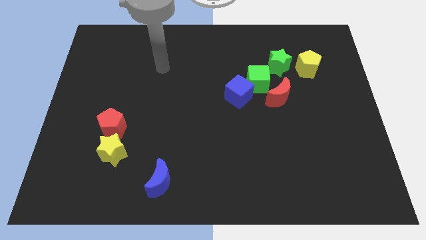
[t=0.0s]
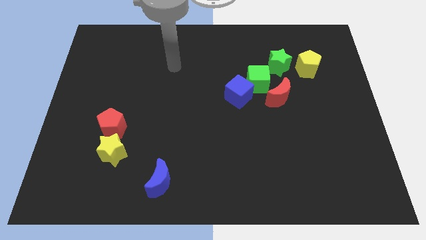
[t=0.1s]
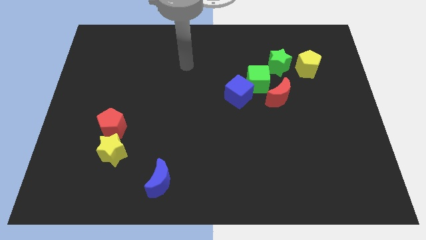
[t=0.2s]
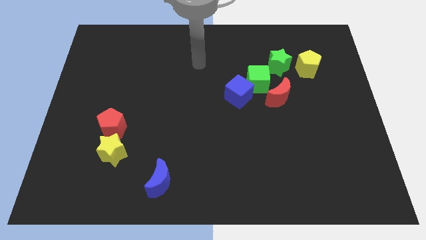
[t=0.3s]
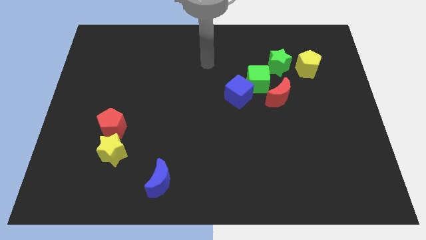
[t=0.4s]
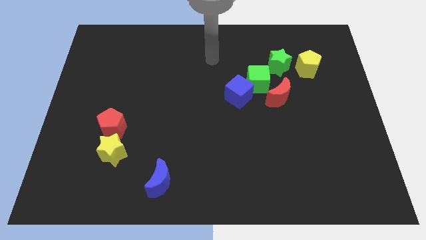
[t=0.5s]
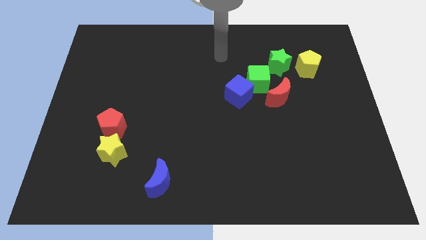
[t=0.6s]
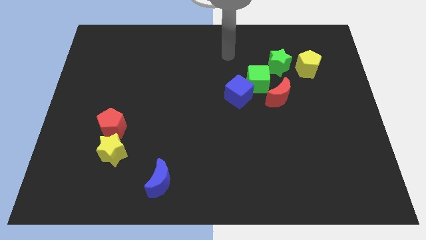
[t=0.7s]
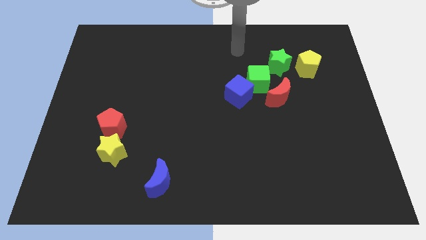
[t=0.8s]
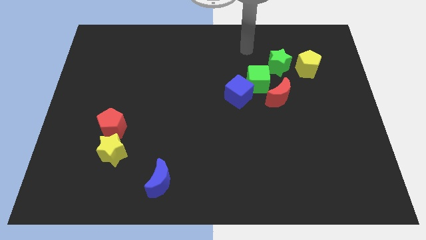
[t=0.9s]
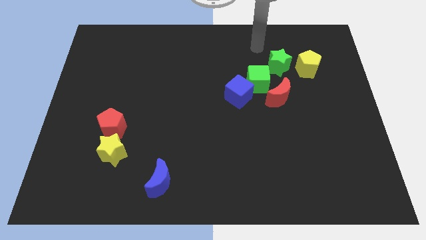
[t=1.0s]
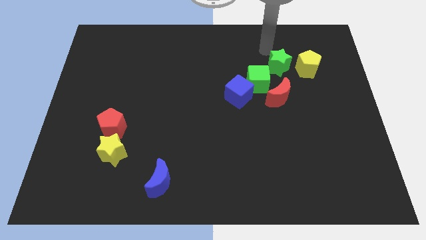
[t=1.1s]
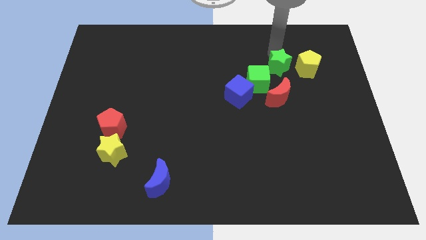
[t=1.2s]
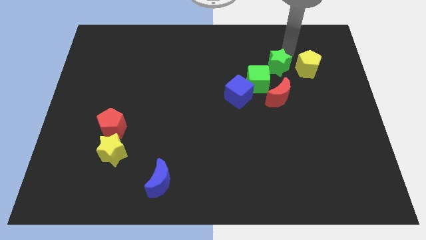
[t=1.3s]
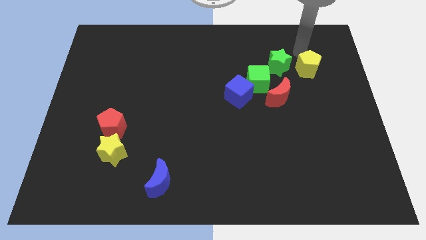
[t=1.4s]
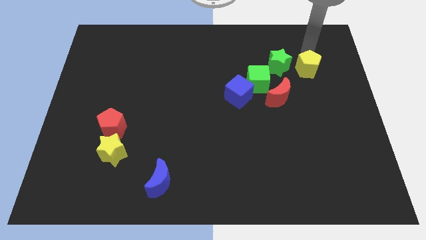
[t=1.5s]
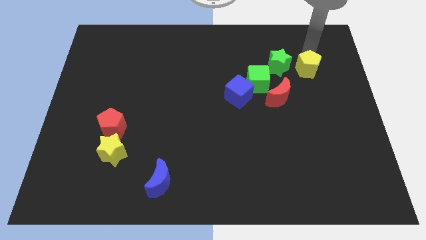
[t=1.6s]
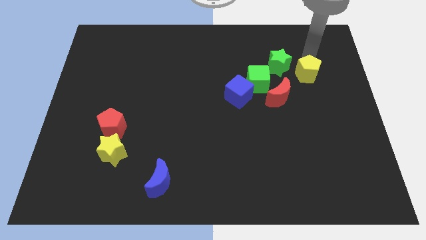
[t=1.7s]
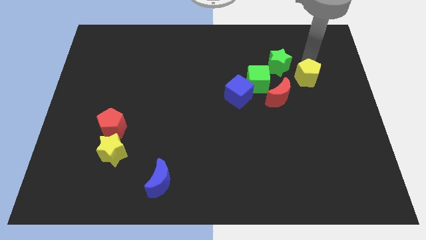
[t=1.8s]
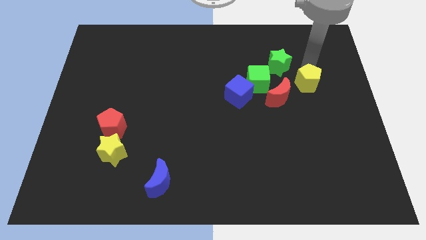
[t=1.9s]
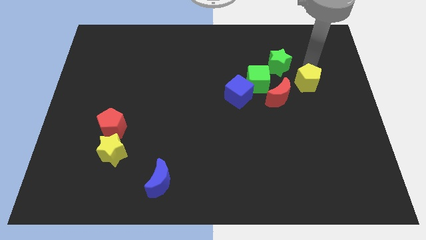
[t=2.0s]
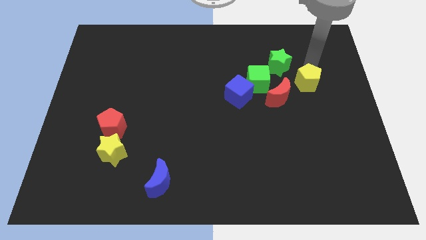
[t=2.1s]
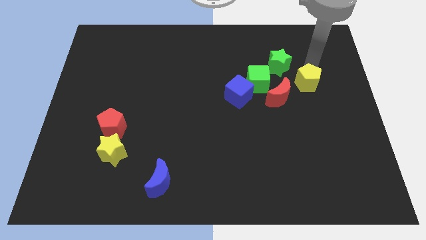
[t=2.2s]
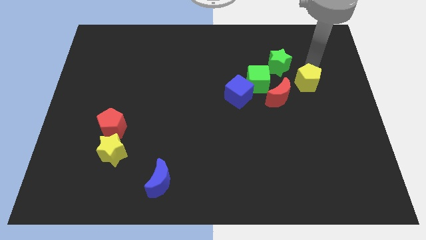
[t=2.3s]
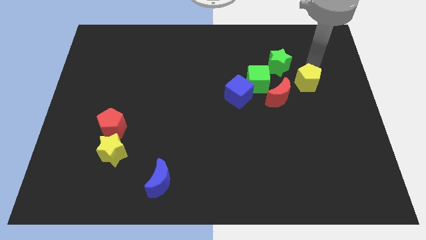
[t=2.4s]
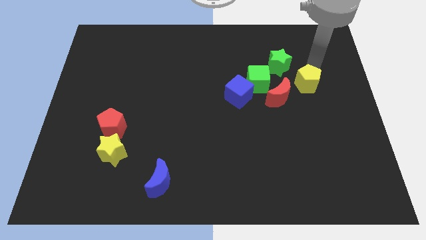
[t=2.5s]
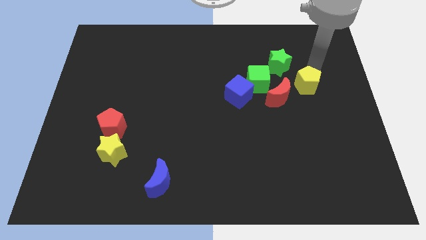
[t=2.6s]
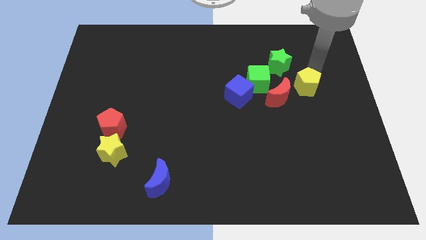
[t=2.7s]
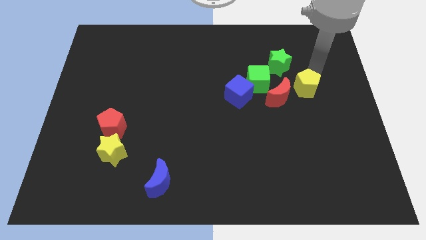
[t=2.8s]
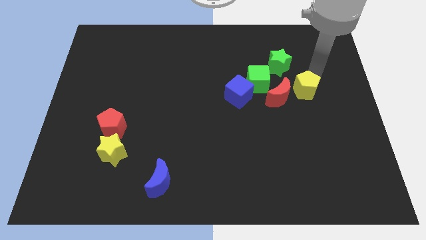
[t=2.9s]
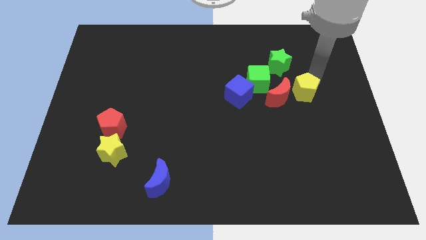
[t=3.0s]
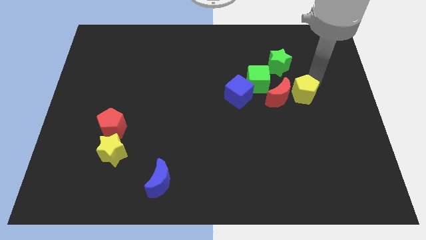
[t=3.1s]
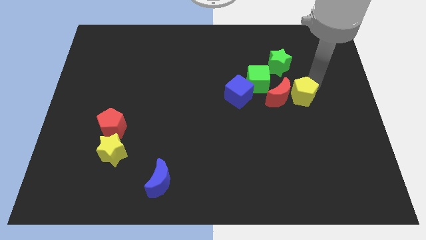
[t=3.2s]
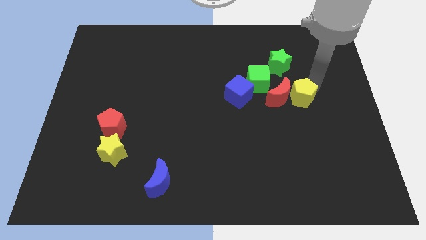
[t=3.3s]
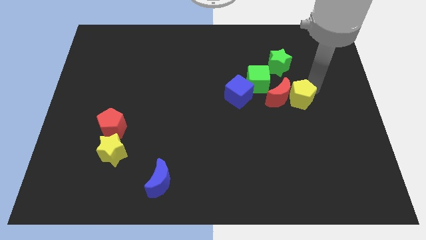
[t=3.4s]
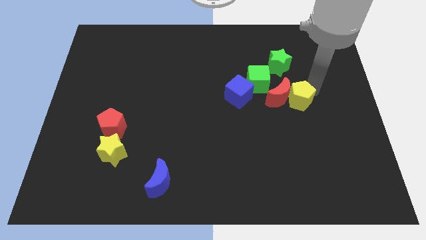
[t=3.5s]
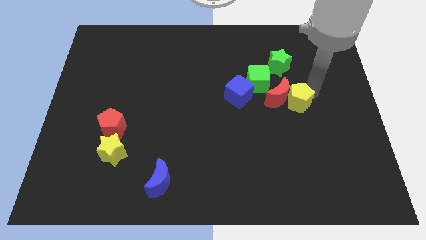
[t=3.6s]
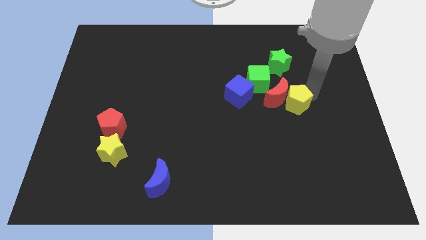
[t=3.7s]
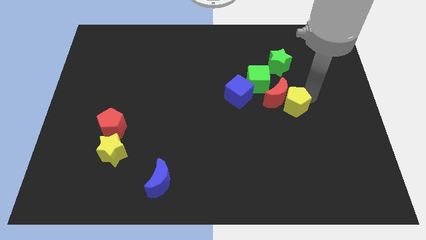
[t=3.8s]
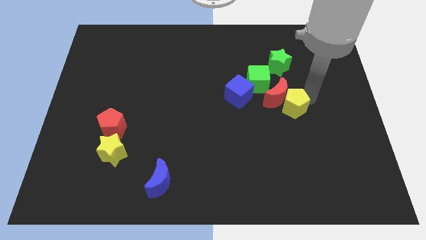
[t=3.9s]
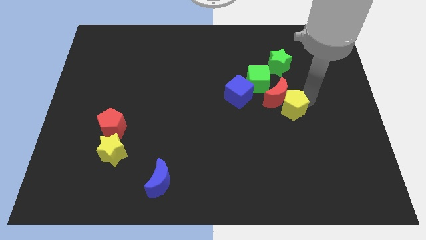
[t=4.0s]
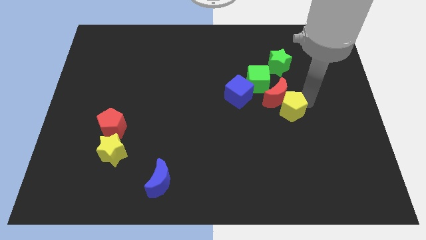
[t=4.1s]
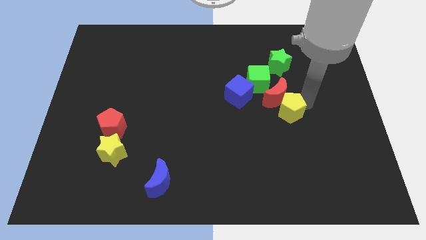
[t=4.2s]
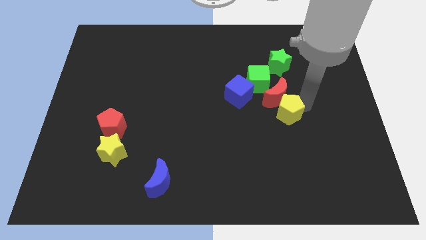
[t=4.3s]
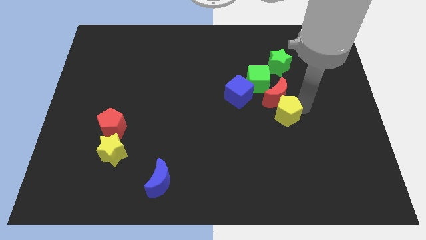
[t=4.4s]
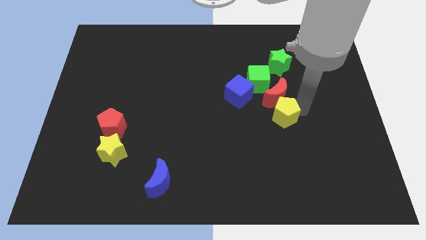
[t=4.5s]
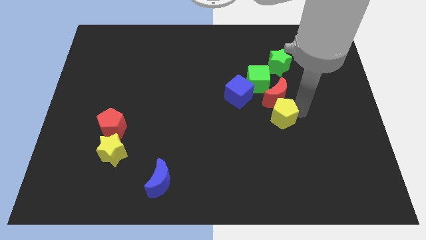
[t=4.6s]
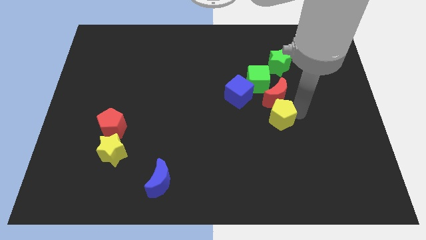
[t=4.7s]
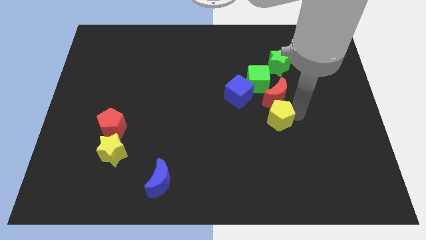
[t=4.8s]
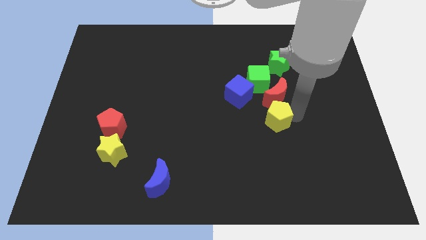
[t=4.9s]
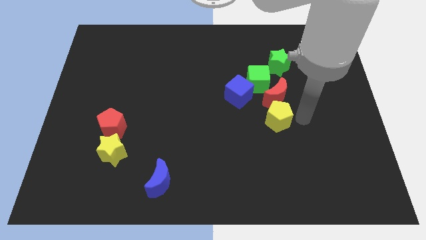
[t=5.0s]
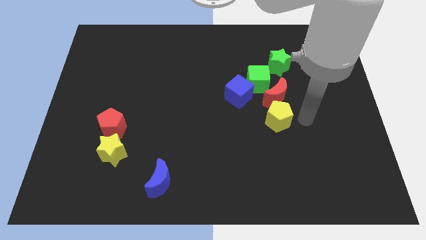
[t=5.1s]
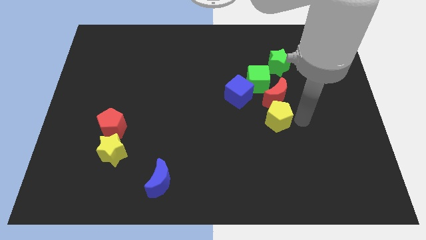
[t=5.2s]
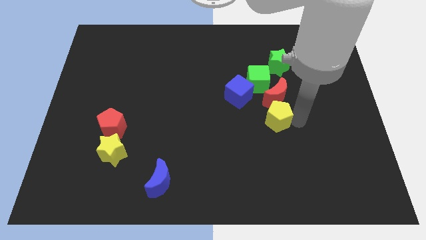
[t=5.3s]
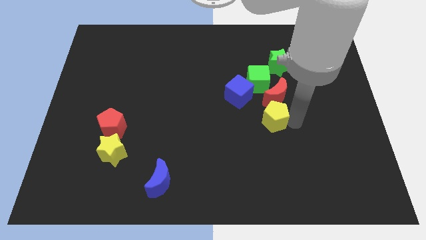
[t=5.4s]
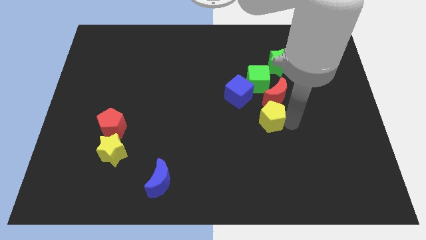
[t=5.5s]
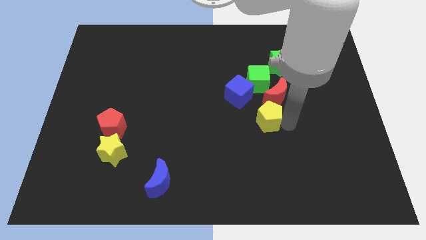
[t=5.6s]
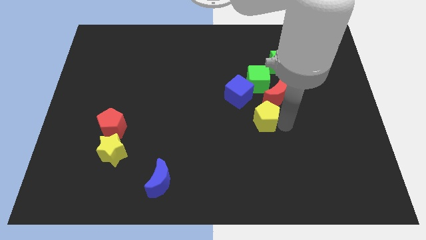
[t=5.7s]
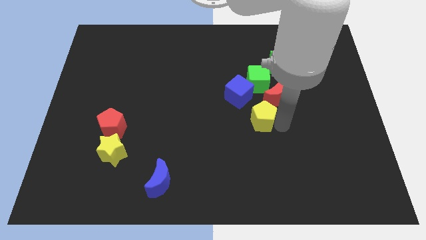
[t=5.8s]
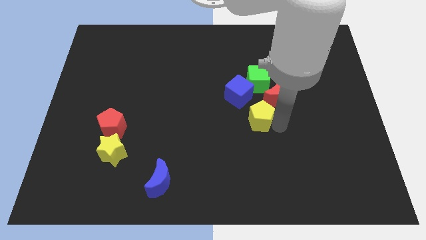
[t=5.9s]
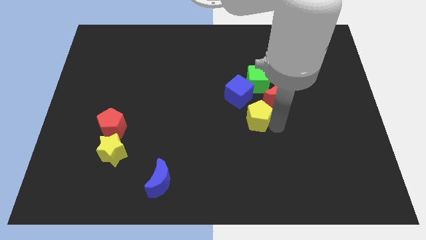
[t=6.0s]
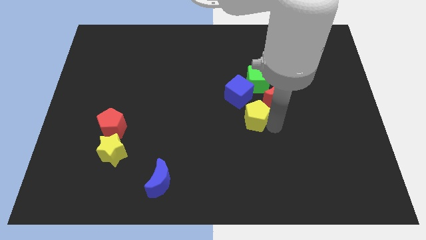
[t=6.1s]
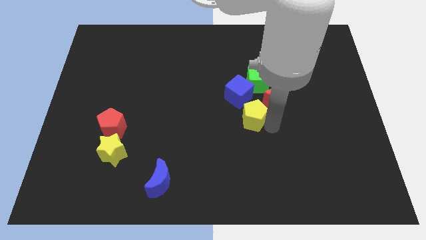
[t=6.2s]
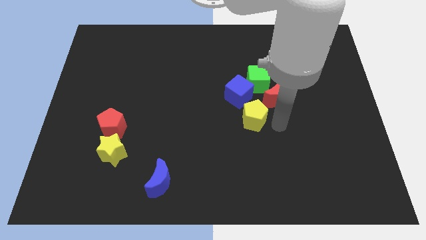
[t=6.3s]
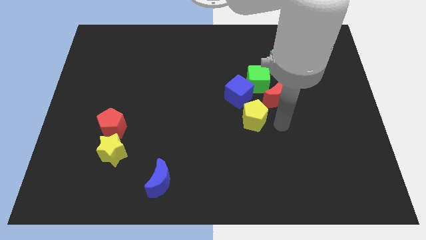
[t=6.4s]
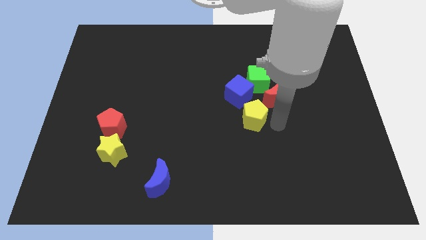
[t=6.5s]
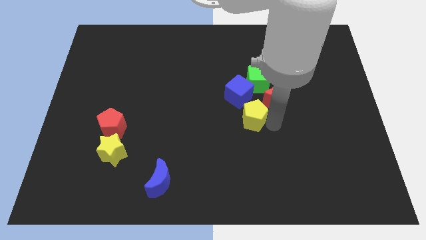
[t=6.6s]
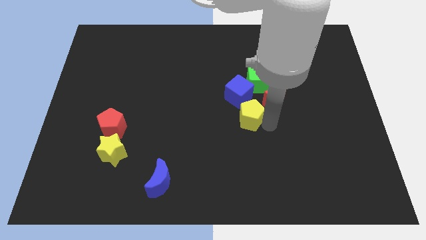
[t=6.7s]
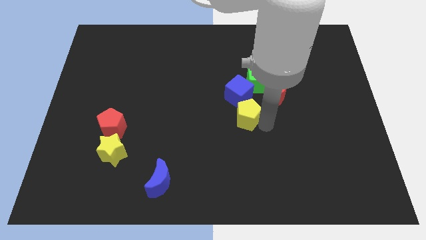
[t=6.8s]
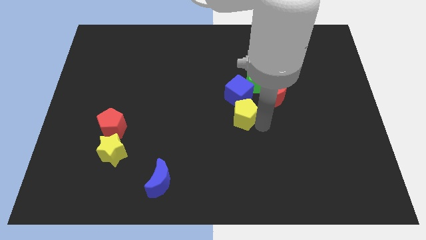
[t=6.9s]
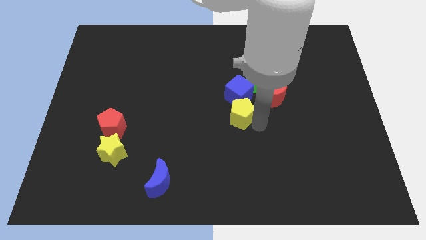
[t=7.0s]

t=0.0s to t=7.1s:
move the yellow pentagon to the bottom left side of the blue cube
